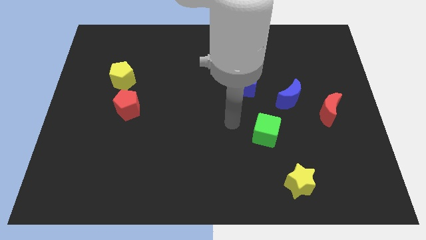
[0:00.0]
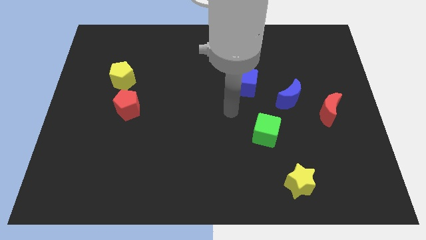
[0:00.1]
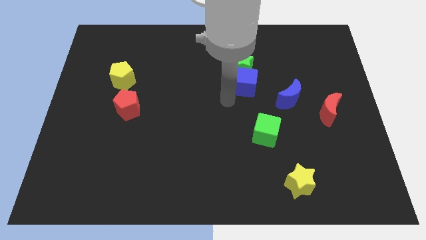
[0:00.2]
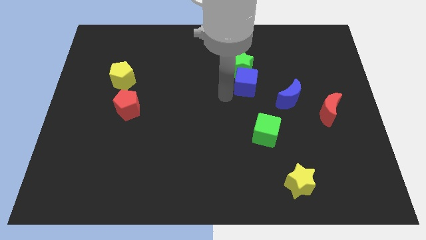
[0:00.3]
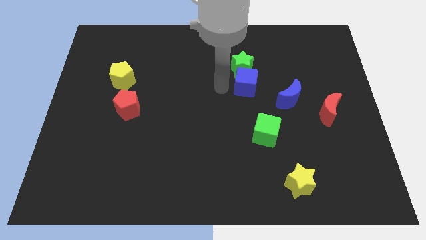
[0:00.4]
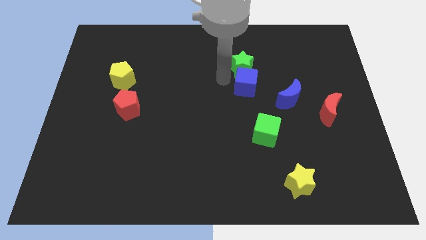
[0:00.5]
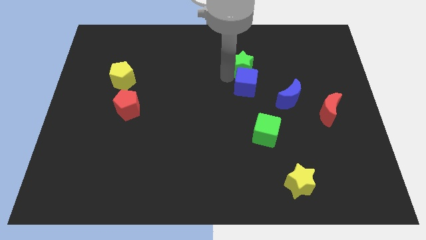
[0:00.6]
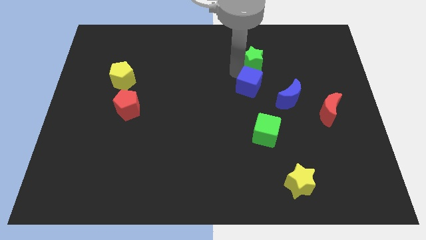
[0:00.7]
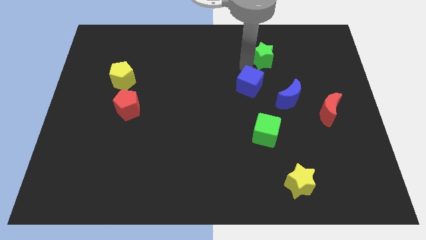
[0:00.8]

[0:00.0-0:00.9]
separate the blue cube from the green star

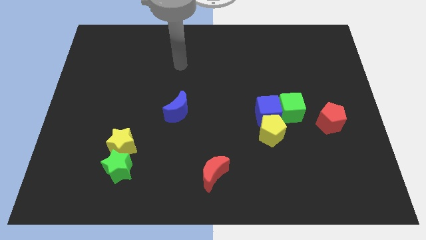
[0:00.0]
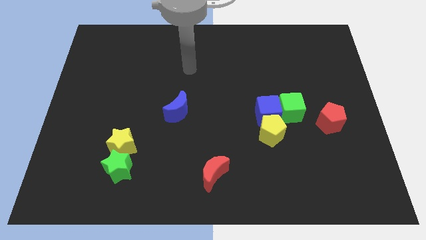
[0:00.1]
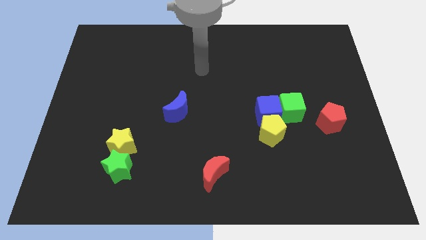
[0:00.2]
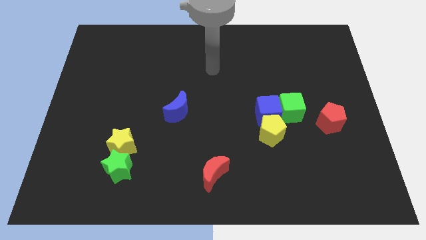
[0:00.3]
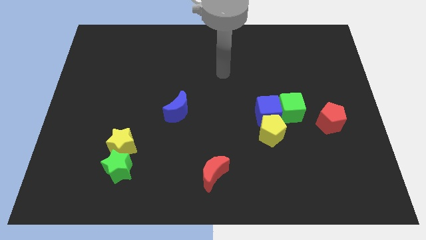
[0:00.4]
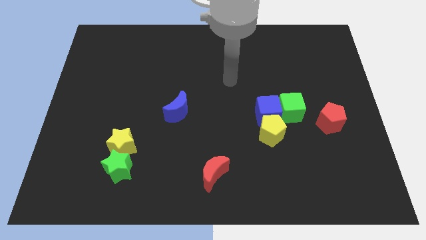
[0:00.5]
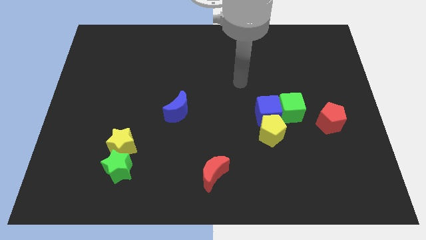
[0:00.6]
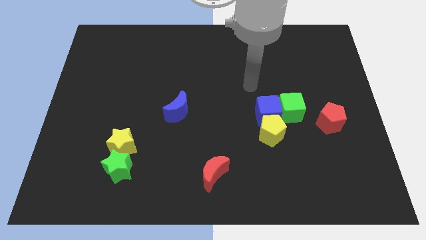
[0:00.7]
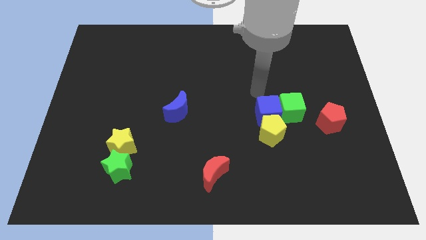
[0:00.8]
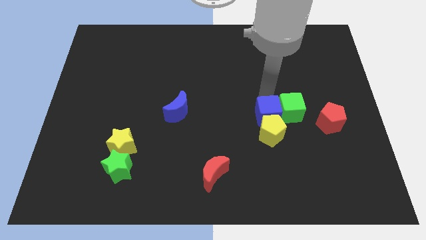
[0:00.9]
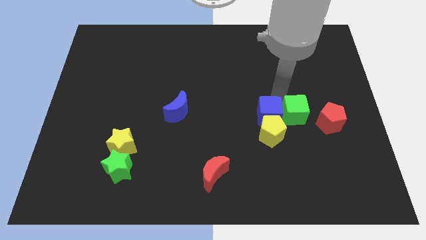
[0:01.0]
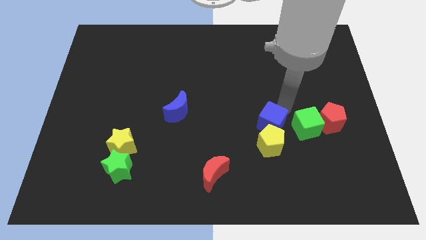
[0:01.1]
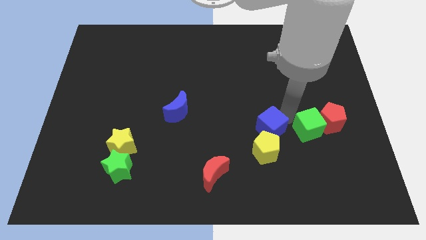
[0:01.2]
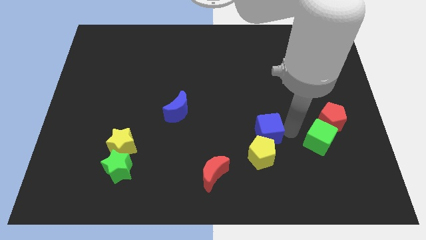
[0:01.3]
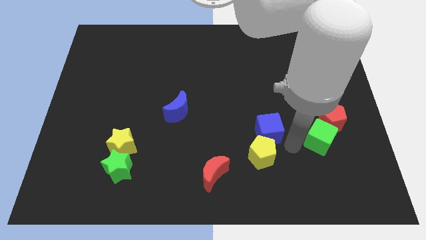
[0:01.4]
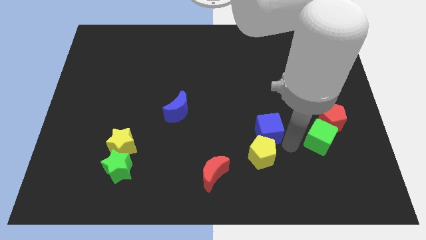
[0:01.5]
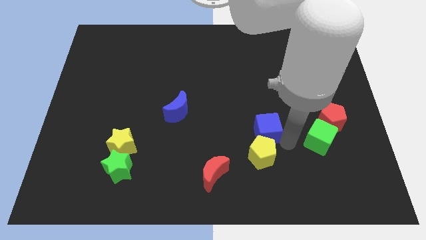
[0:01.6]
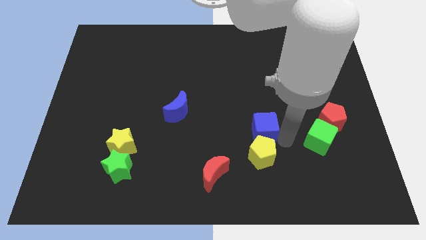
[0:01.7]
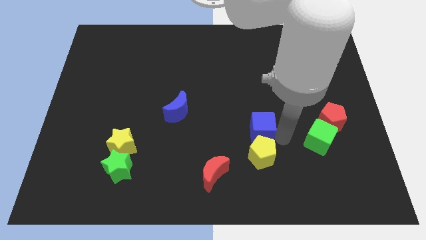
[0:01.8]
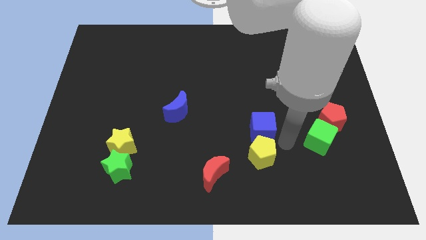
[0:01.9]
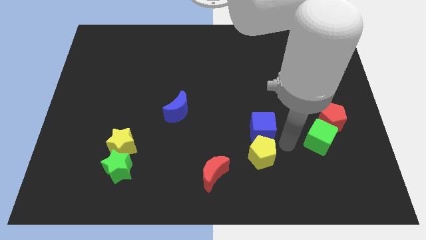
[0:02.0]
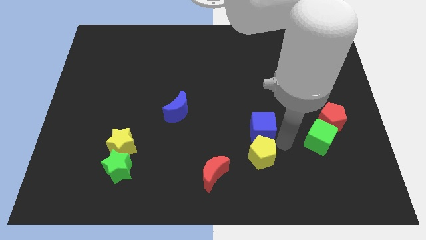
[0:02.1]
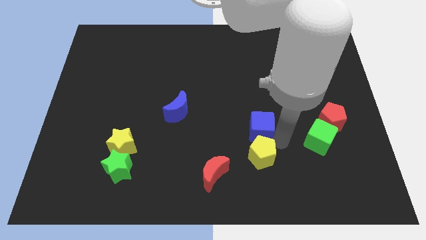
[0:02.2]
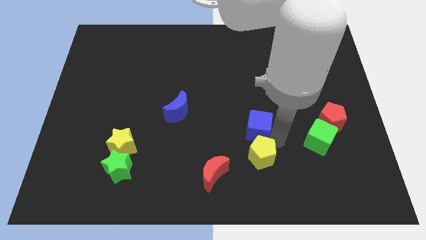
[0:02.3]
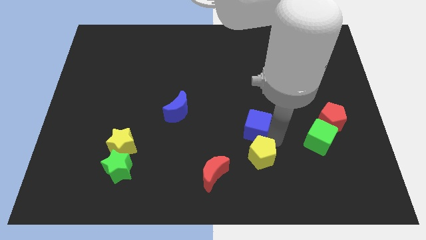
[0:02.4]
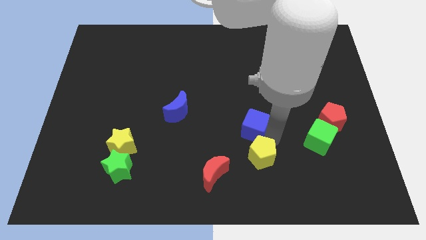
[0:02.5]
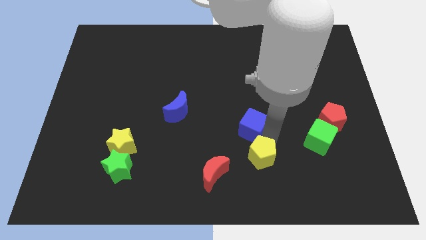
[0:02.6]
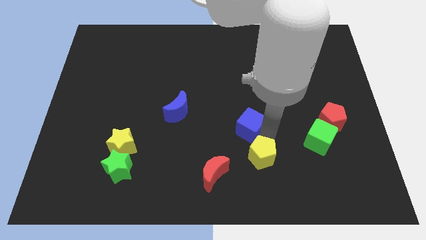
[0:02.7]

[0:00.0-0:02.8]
separate the blue cube from the yellow pentagon and green cube

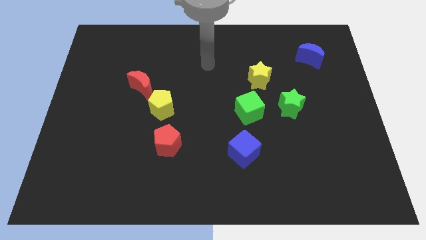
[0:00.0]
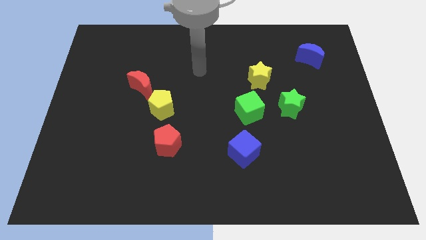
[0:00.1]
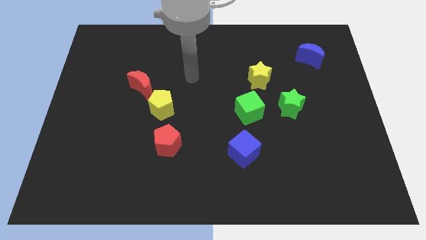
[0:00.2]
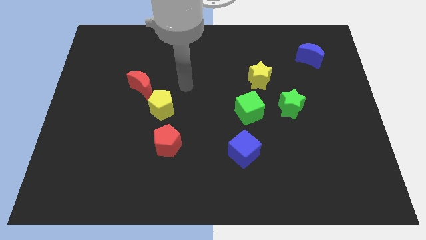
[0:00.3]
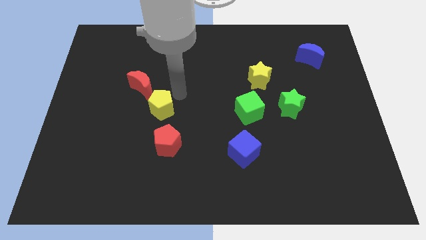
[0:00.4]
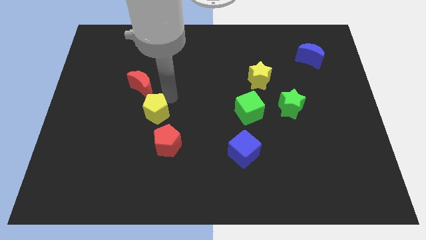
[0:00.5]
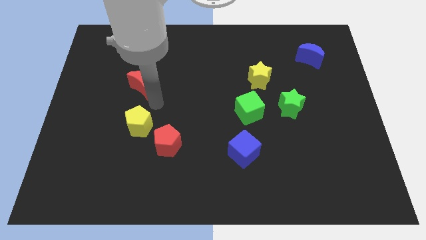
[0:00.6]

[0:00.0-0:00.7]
separate the red moon from the yellow pentagon

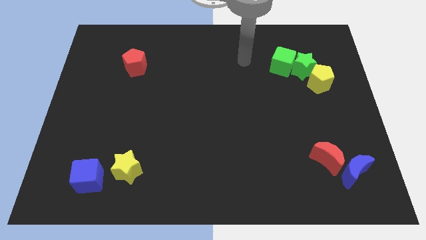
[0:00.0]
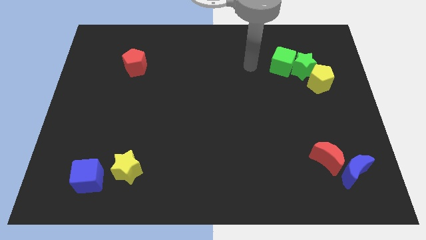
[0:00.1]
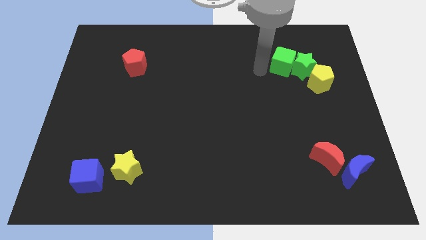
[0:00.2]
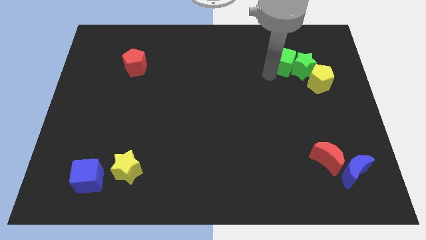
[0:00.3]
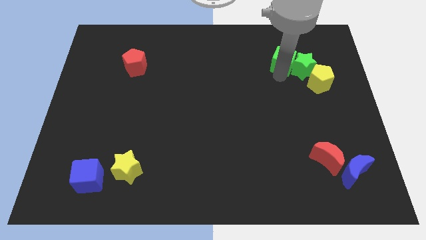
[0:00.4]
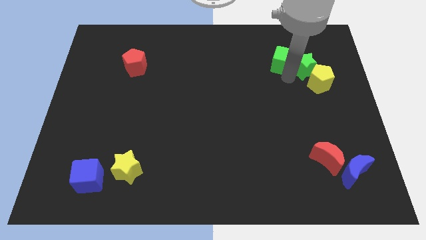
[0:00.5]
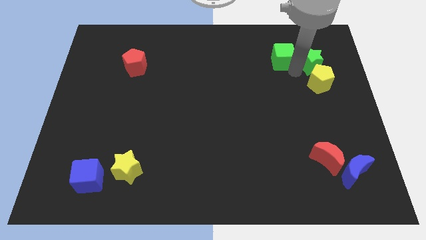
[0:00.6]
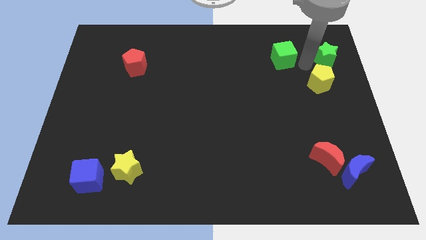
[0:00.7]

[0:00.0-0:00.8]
pull the green cube apart from the green star

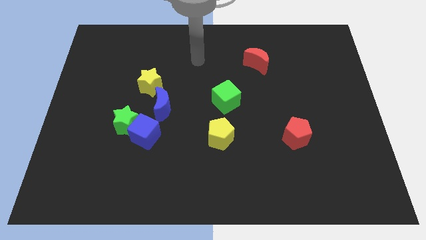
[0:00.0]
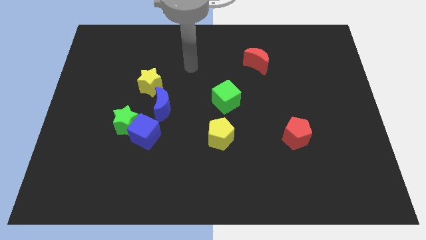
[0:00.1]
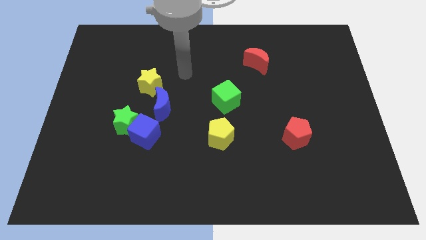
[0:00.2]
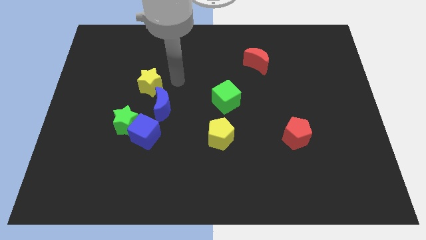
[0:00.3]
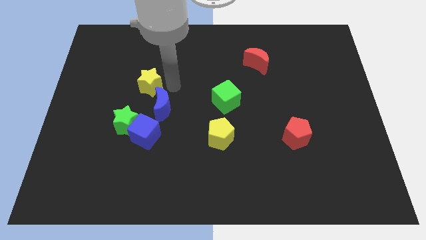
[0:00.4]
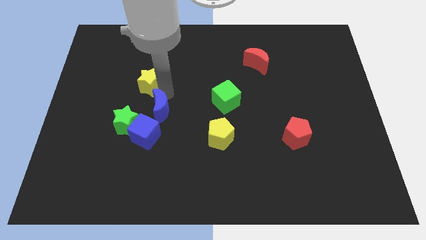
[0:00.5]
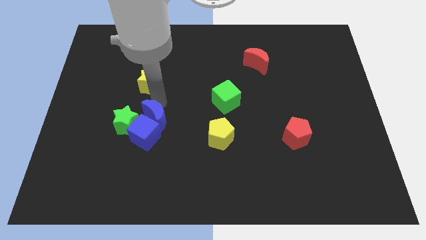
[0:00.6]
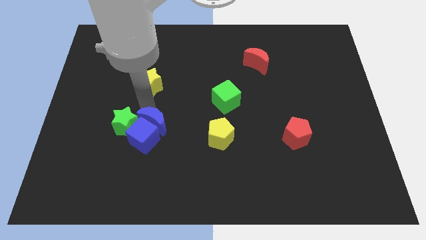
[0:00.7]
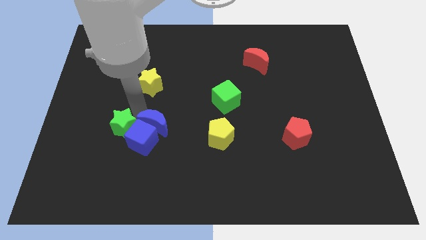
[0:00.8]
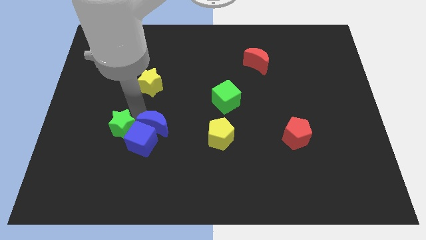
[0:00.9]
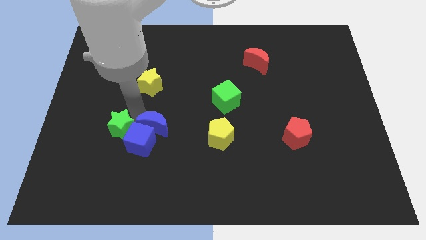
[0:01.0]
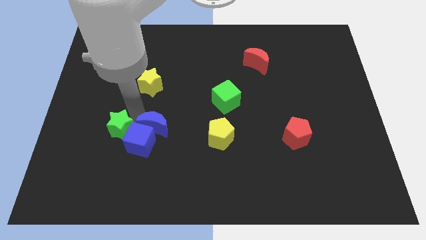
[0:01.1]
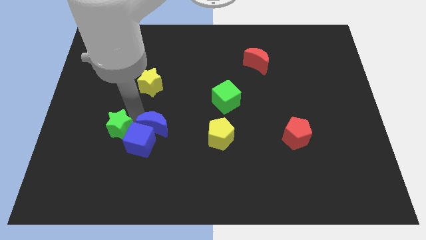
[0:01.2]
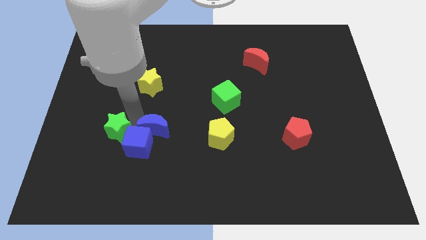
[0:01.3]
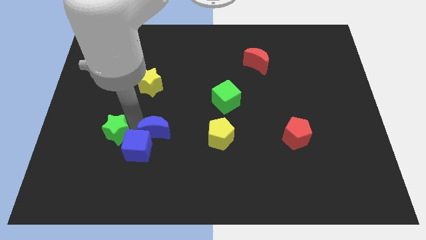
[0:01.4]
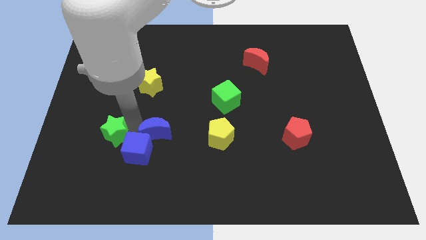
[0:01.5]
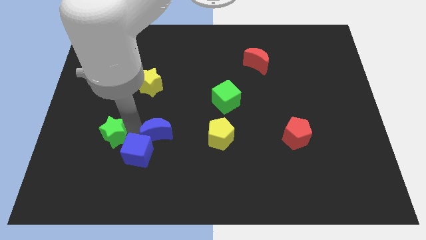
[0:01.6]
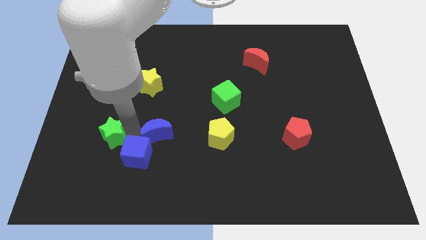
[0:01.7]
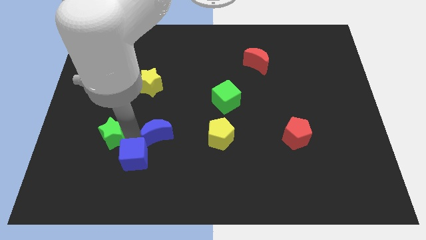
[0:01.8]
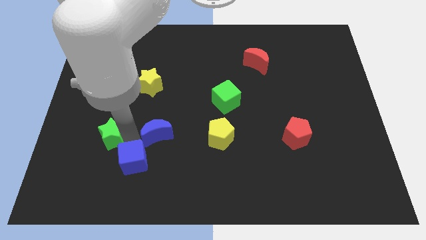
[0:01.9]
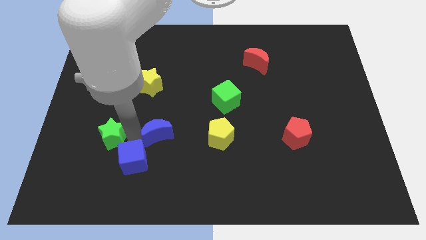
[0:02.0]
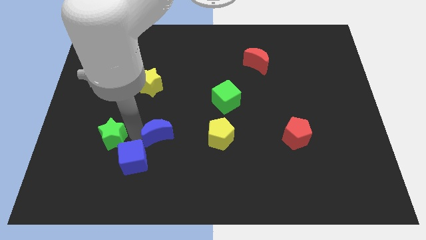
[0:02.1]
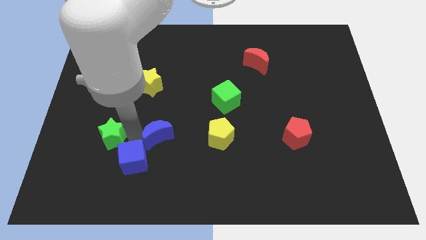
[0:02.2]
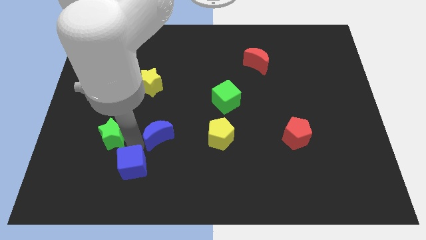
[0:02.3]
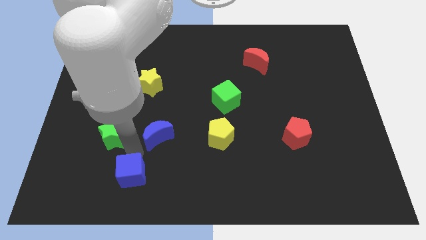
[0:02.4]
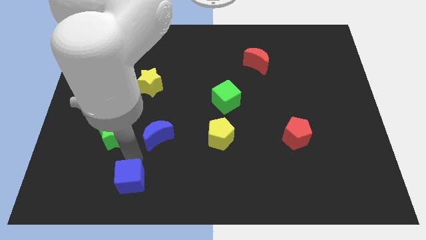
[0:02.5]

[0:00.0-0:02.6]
separate the blue cube from the green star and blue moon

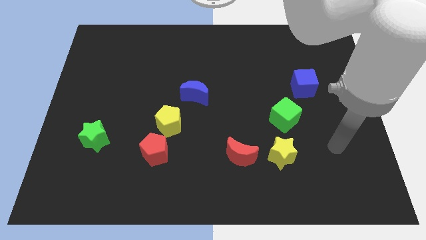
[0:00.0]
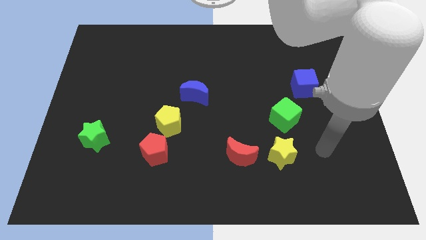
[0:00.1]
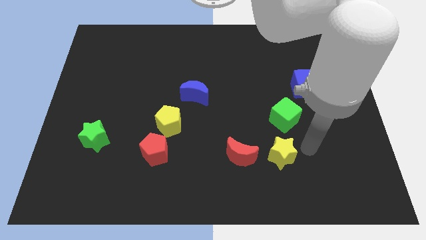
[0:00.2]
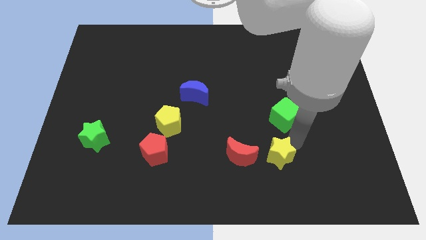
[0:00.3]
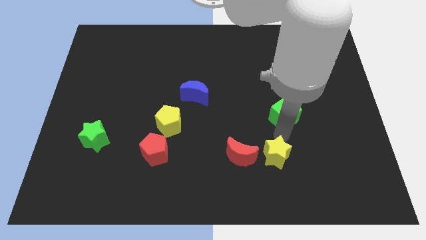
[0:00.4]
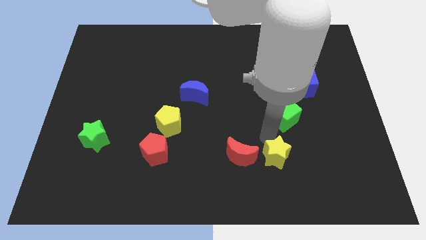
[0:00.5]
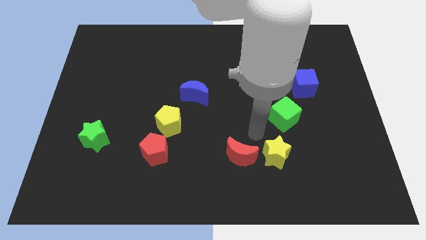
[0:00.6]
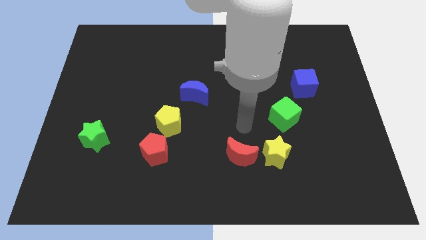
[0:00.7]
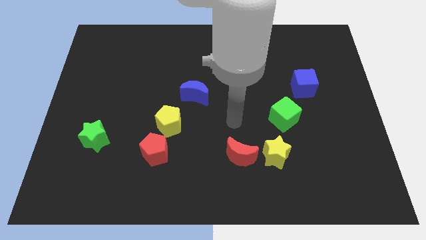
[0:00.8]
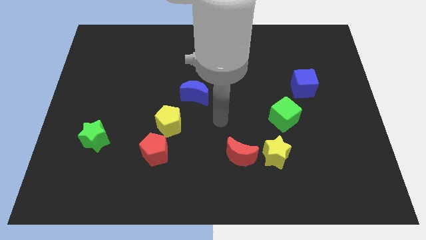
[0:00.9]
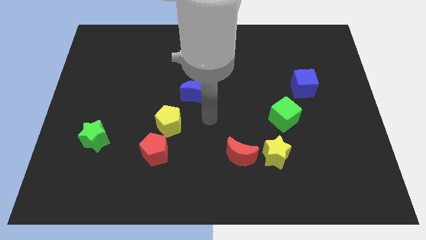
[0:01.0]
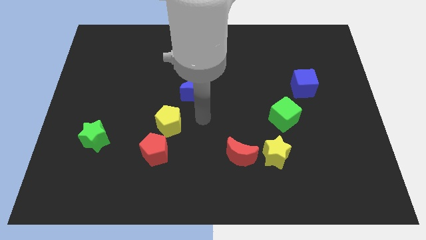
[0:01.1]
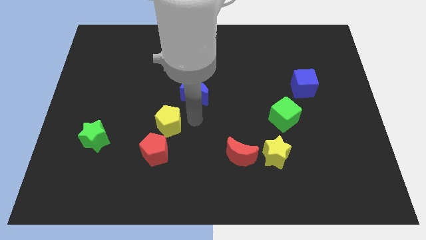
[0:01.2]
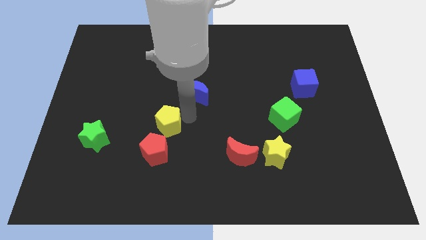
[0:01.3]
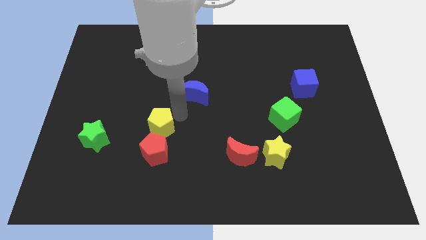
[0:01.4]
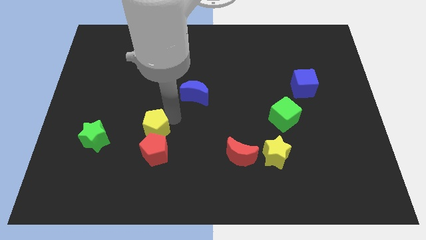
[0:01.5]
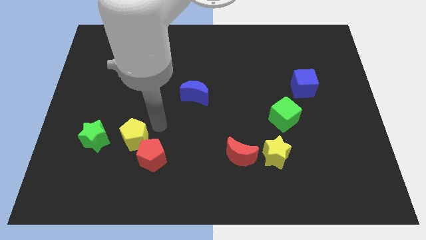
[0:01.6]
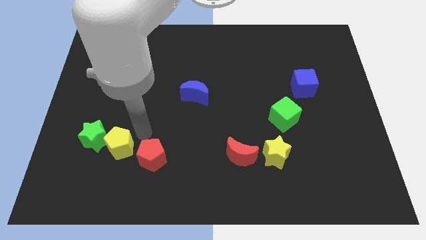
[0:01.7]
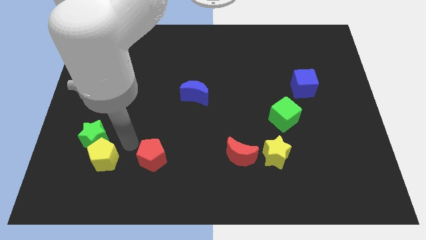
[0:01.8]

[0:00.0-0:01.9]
pull the red pentagon apart from the yellow pentagon
